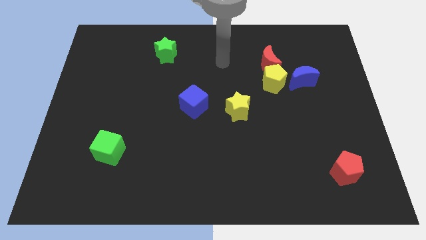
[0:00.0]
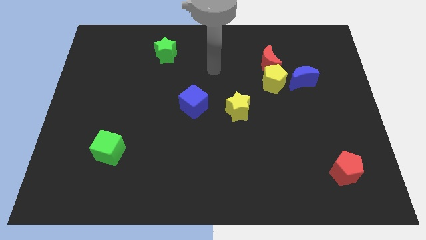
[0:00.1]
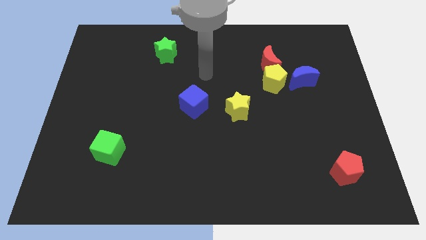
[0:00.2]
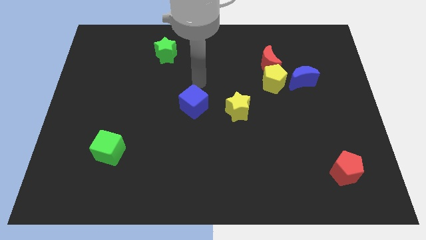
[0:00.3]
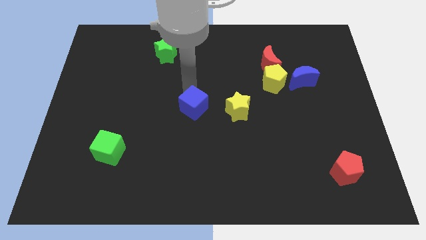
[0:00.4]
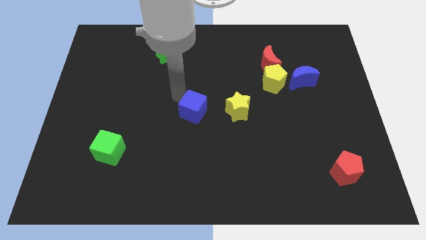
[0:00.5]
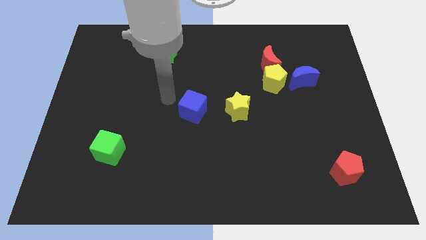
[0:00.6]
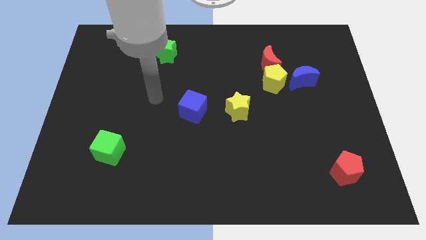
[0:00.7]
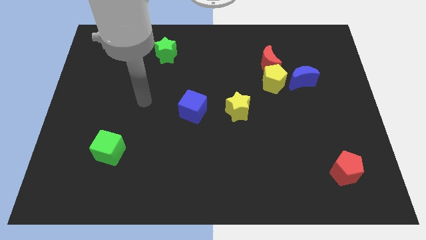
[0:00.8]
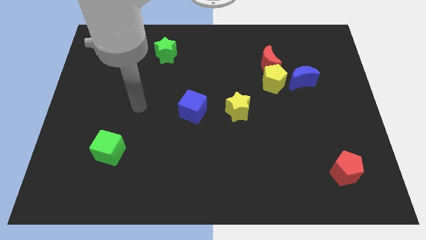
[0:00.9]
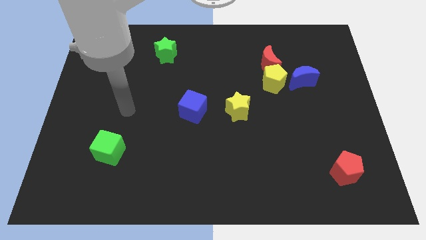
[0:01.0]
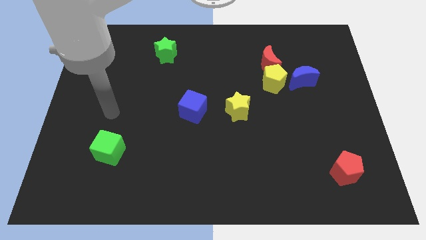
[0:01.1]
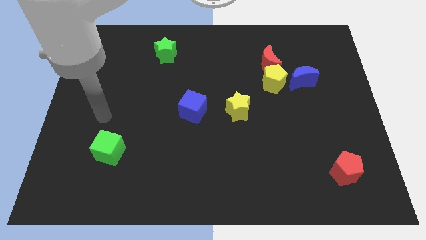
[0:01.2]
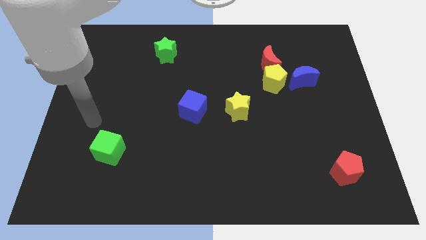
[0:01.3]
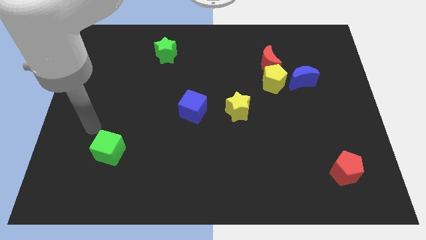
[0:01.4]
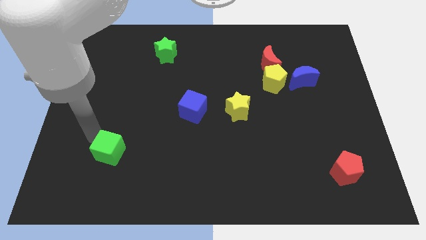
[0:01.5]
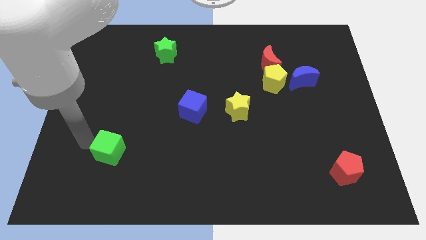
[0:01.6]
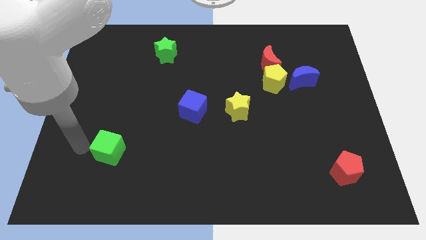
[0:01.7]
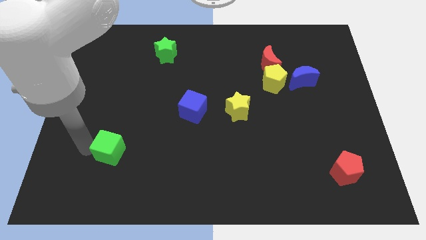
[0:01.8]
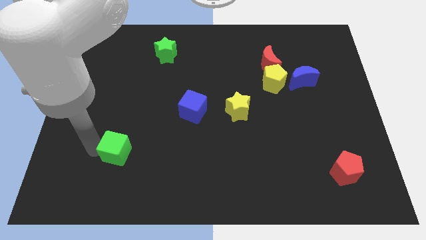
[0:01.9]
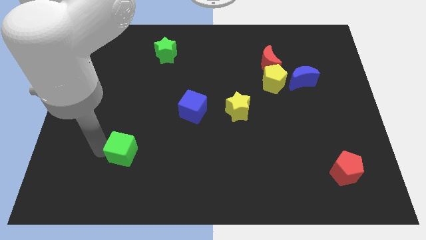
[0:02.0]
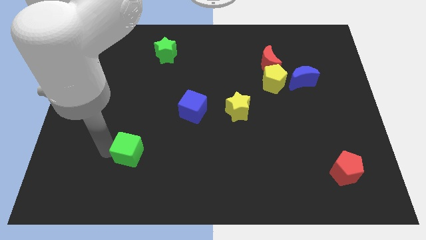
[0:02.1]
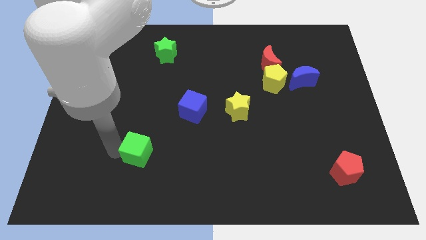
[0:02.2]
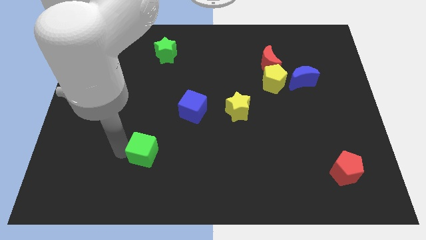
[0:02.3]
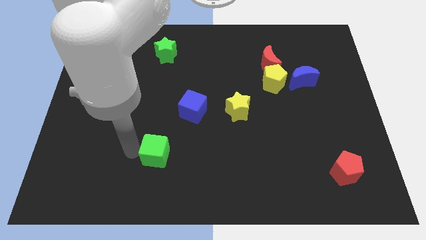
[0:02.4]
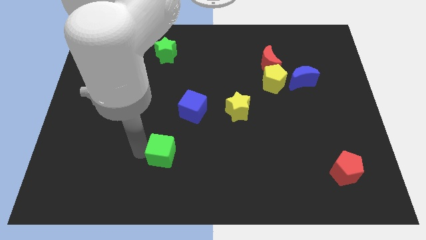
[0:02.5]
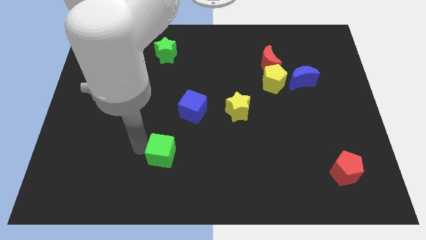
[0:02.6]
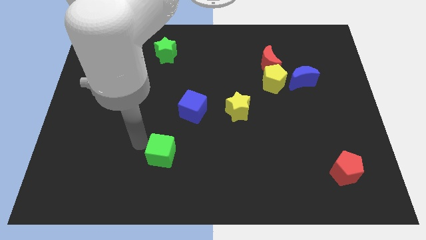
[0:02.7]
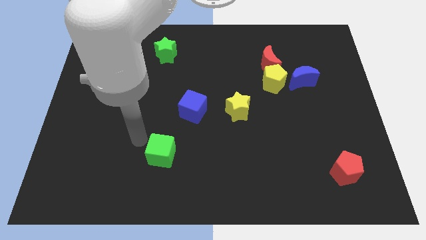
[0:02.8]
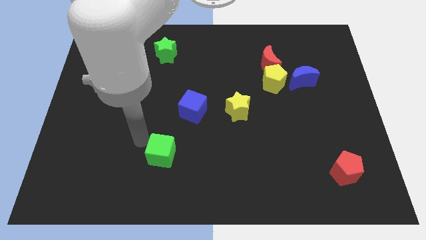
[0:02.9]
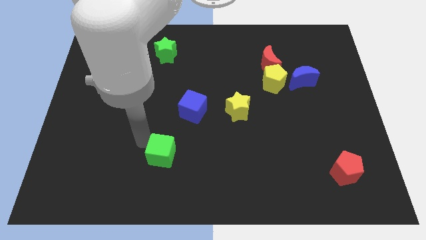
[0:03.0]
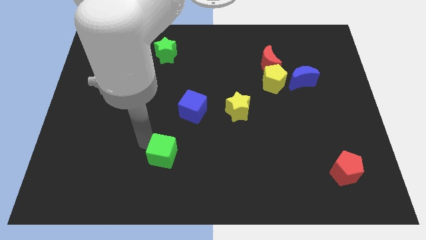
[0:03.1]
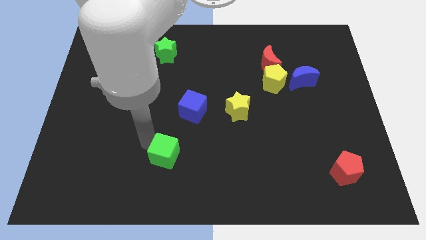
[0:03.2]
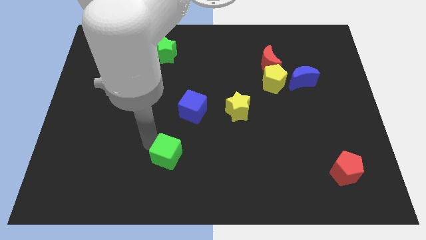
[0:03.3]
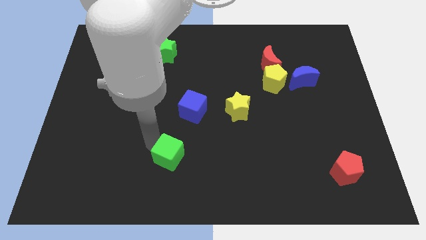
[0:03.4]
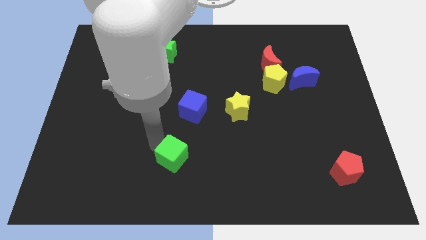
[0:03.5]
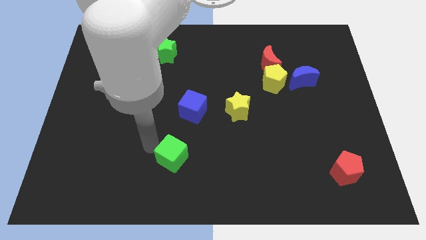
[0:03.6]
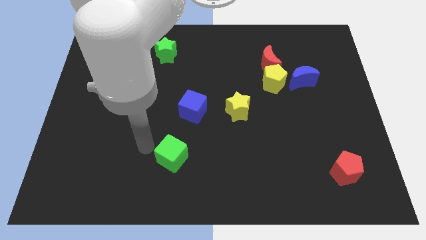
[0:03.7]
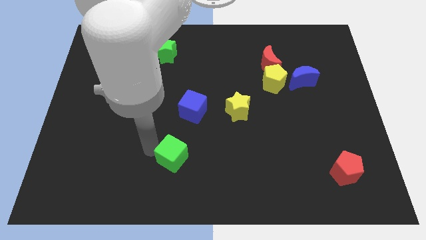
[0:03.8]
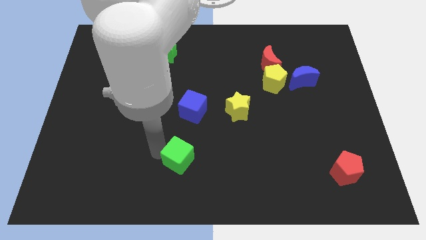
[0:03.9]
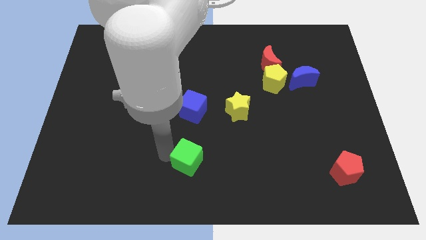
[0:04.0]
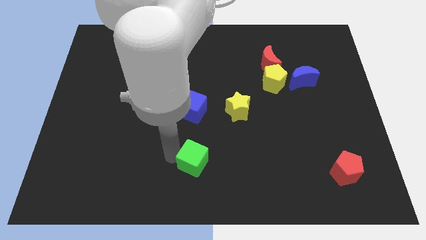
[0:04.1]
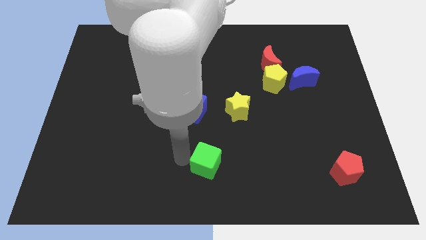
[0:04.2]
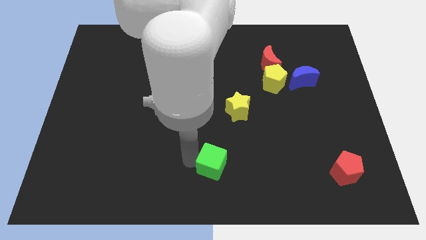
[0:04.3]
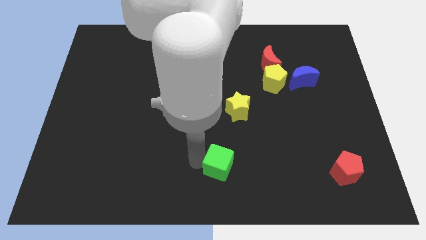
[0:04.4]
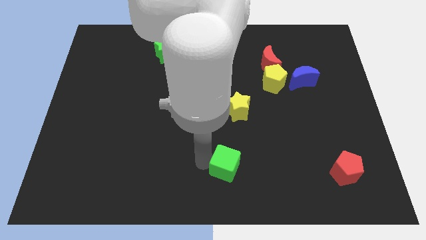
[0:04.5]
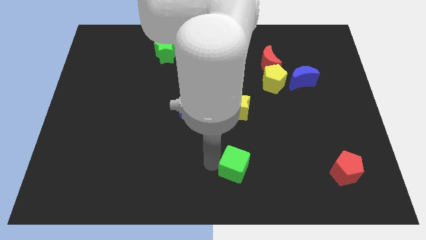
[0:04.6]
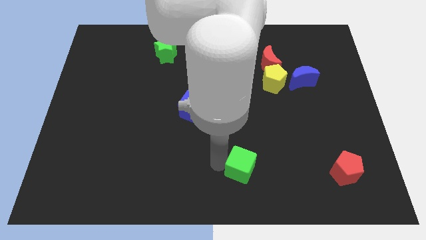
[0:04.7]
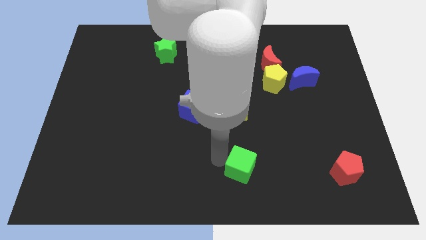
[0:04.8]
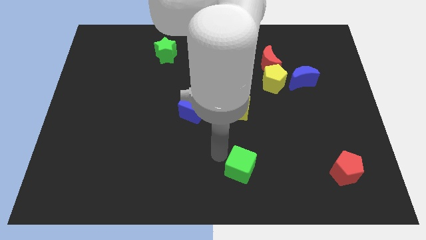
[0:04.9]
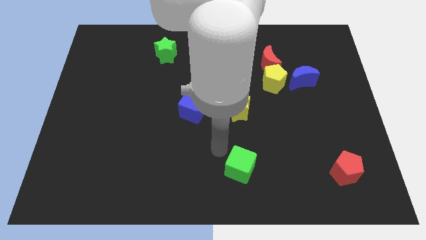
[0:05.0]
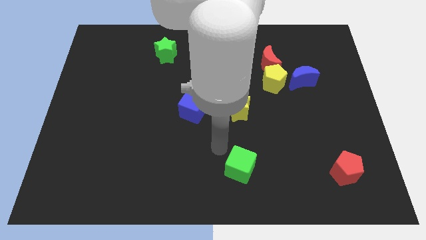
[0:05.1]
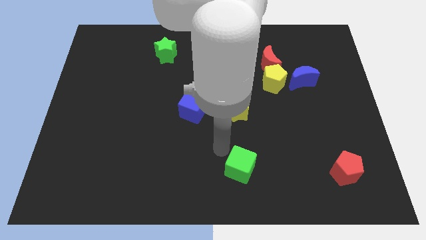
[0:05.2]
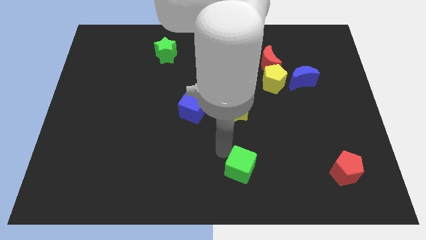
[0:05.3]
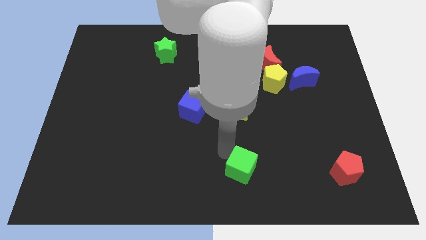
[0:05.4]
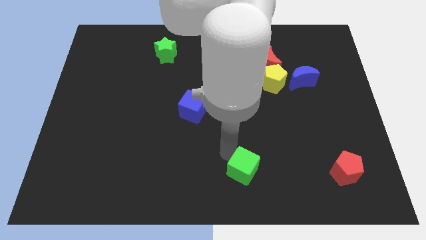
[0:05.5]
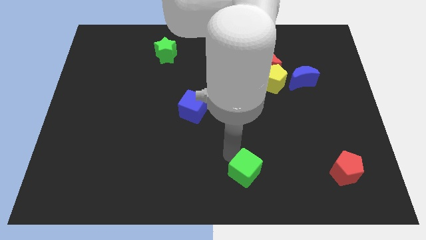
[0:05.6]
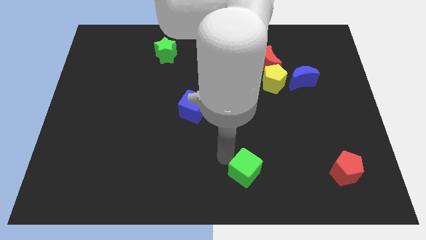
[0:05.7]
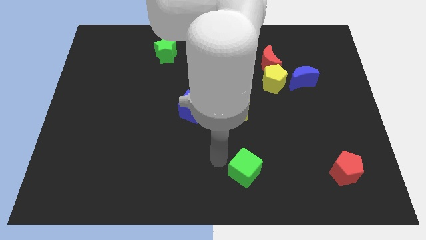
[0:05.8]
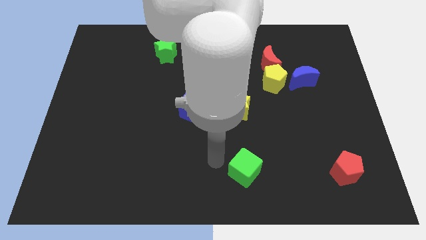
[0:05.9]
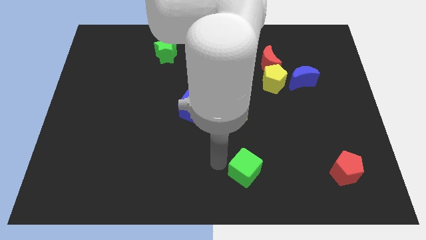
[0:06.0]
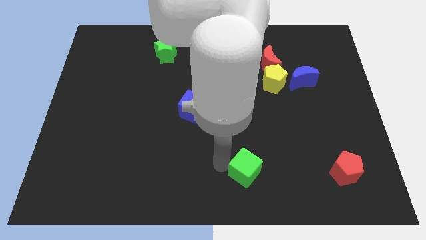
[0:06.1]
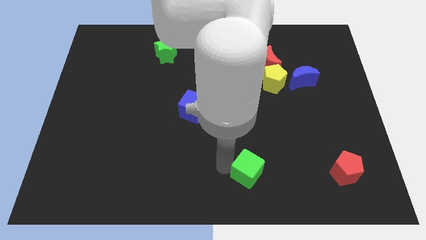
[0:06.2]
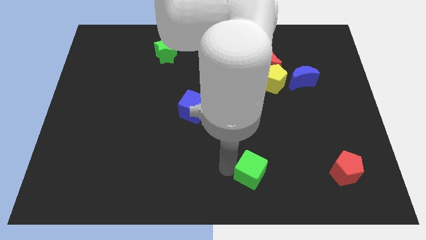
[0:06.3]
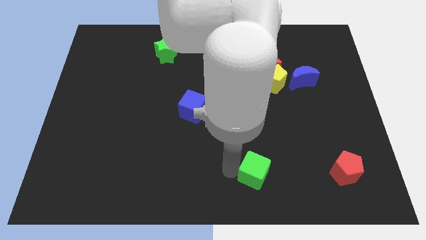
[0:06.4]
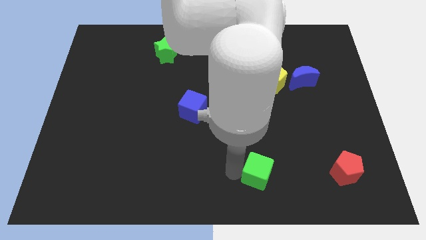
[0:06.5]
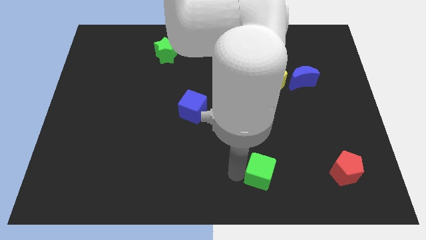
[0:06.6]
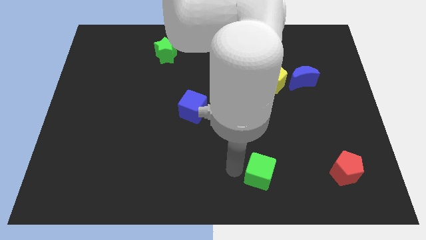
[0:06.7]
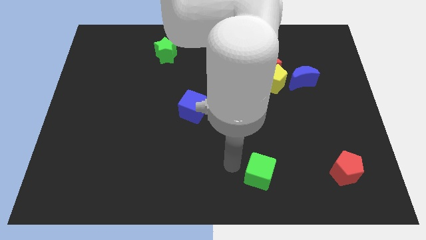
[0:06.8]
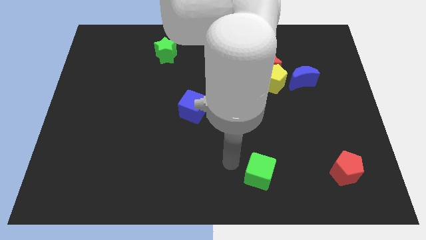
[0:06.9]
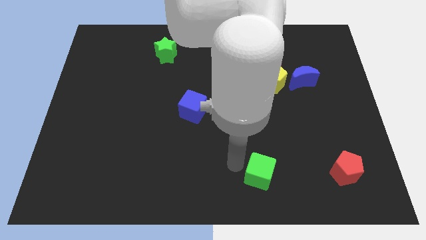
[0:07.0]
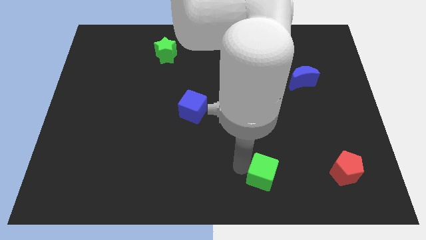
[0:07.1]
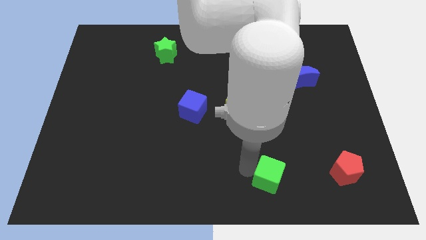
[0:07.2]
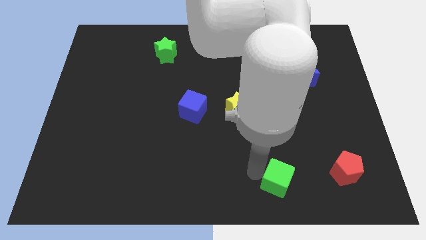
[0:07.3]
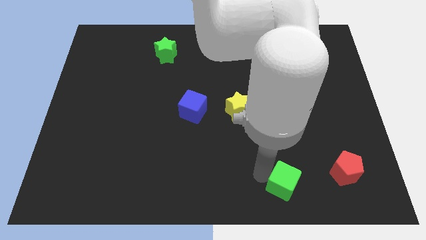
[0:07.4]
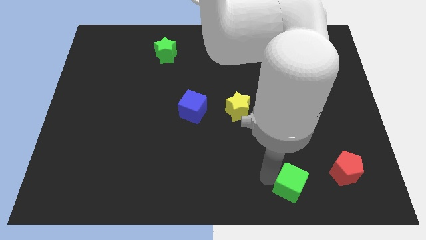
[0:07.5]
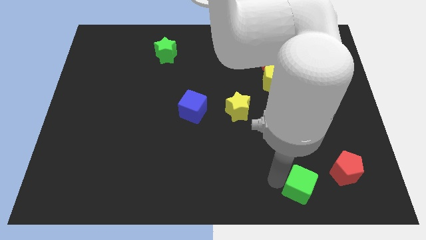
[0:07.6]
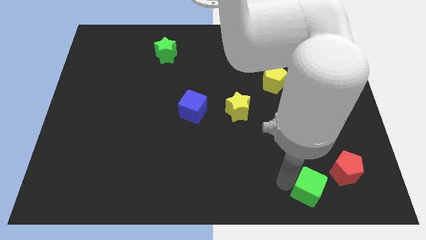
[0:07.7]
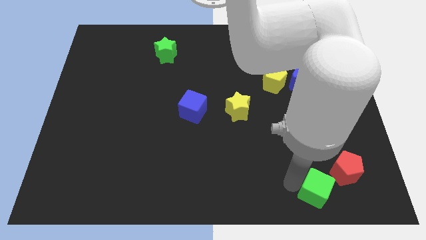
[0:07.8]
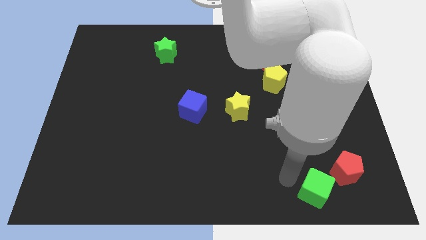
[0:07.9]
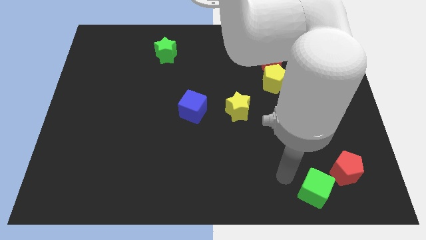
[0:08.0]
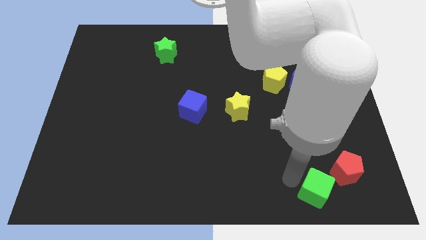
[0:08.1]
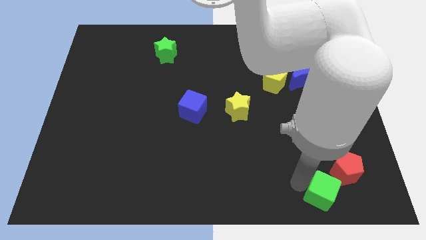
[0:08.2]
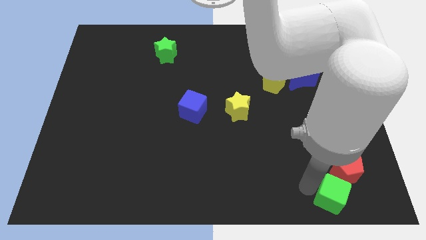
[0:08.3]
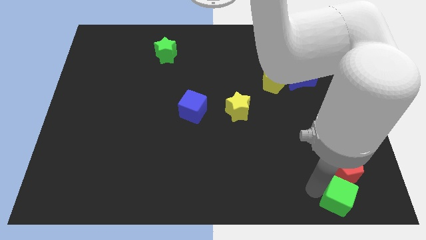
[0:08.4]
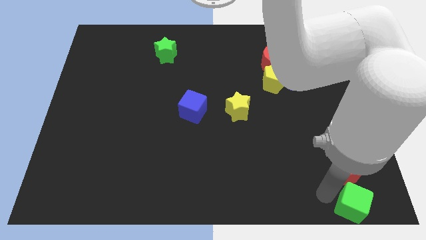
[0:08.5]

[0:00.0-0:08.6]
slide the green cube to the bottom right corner
